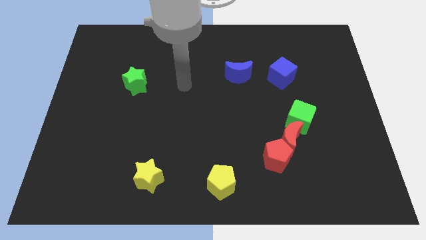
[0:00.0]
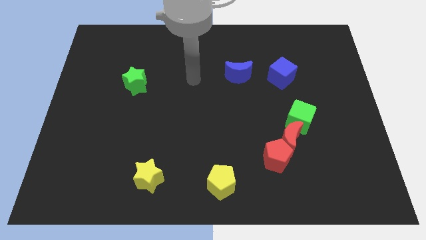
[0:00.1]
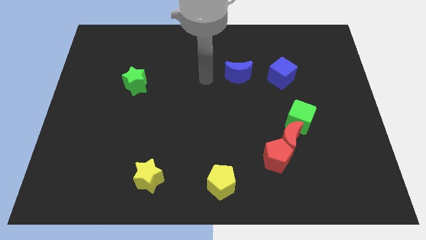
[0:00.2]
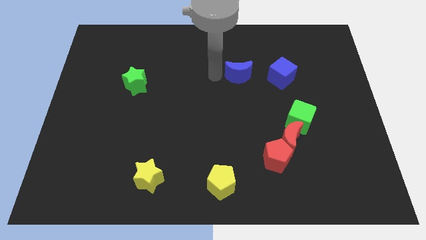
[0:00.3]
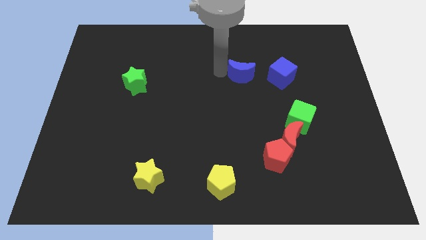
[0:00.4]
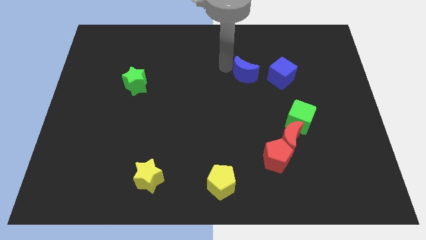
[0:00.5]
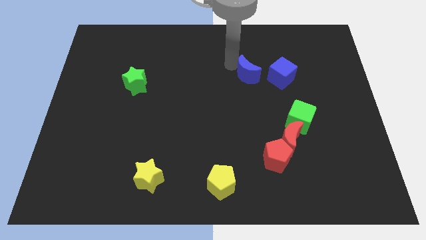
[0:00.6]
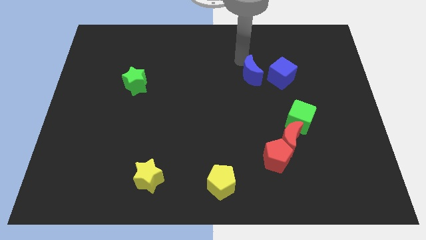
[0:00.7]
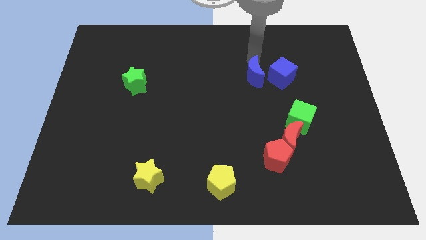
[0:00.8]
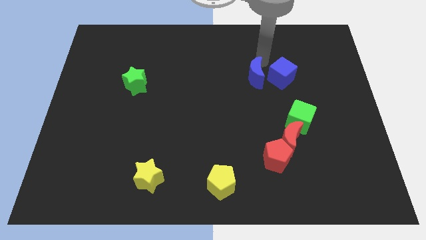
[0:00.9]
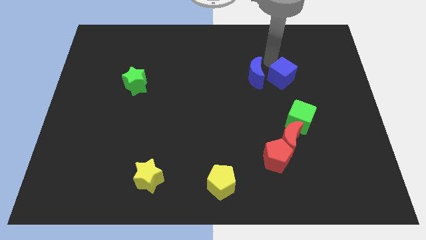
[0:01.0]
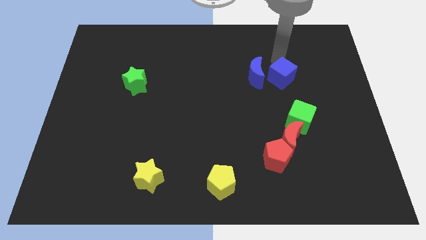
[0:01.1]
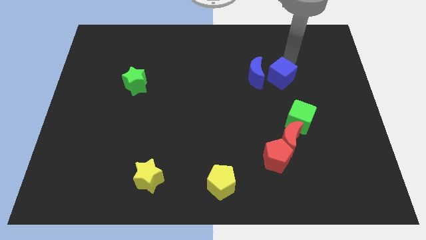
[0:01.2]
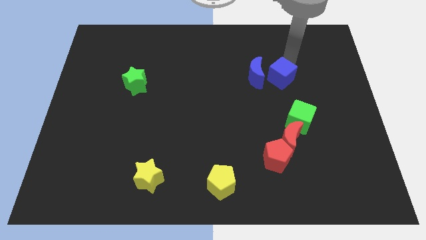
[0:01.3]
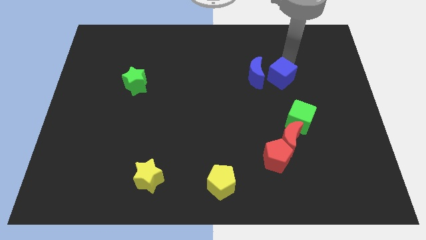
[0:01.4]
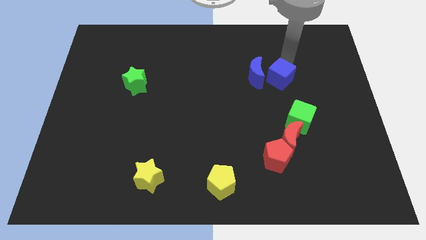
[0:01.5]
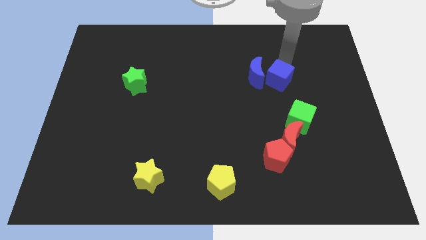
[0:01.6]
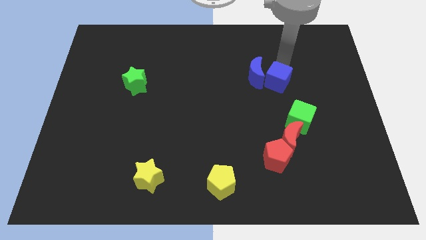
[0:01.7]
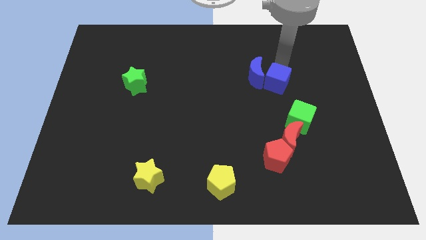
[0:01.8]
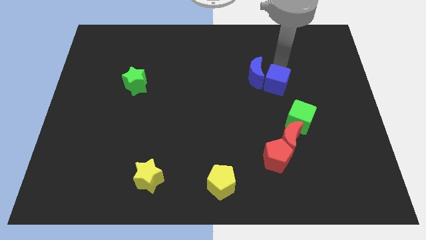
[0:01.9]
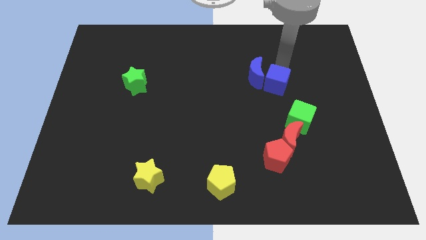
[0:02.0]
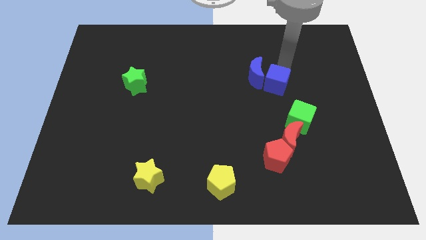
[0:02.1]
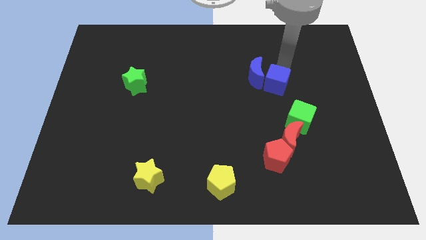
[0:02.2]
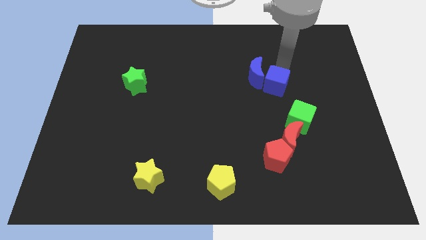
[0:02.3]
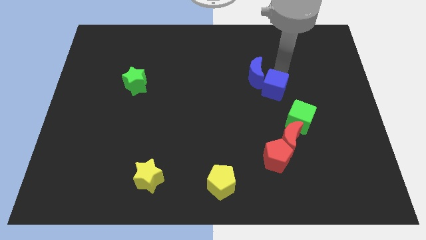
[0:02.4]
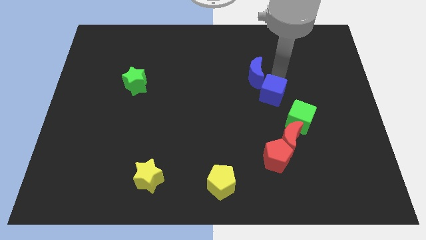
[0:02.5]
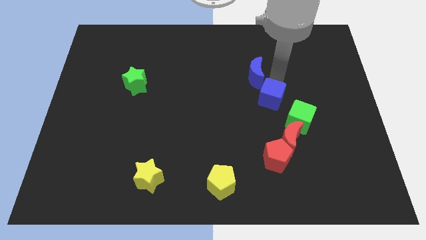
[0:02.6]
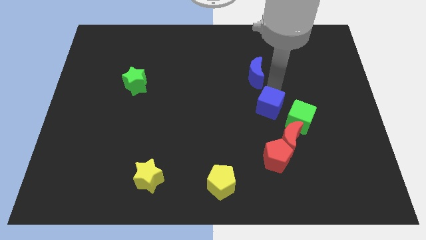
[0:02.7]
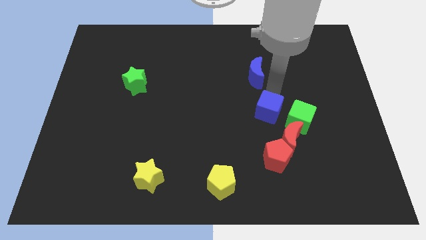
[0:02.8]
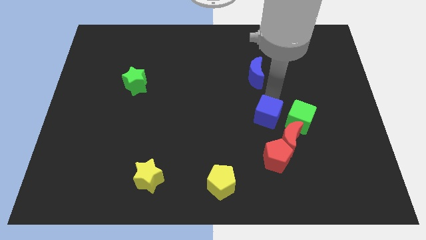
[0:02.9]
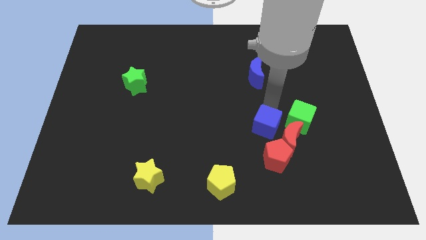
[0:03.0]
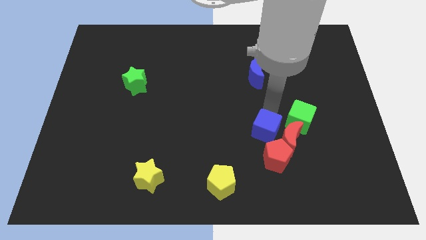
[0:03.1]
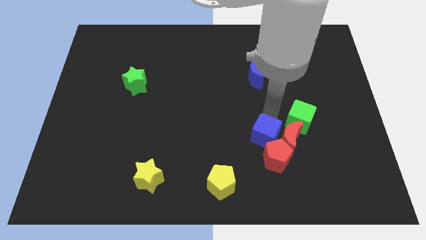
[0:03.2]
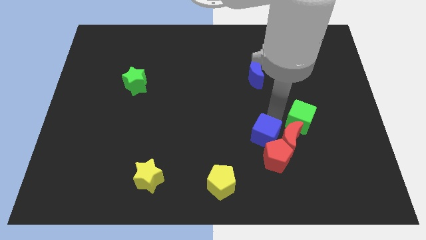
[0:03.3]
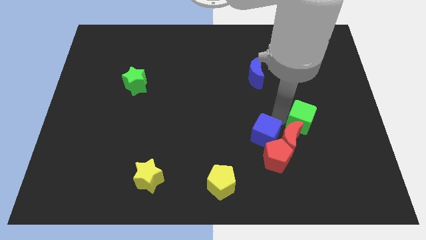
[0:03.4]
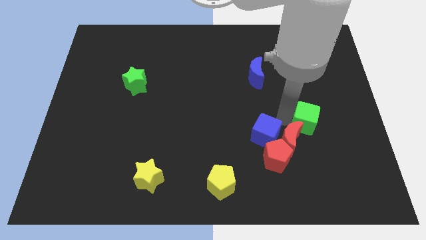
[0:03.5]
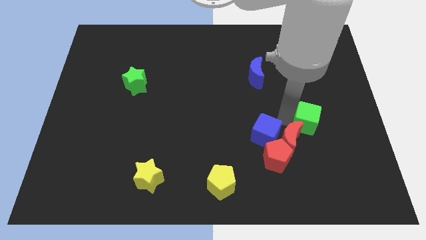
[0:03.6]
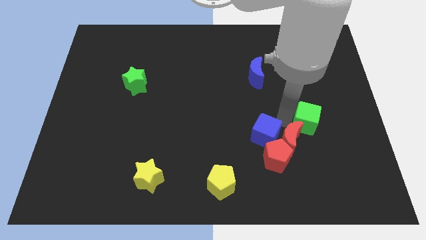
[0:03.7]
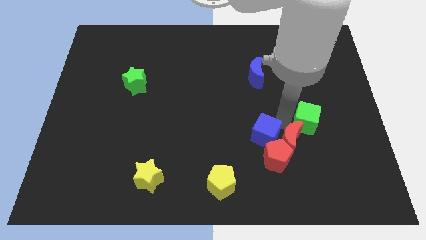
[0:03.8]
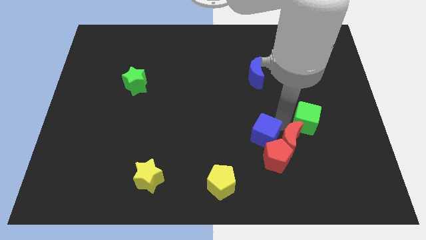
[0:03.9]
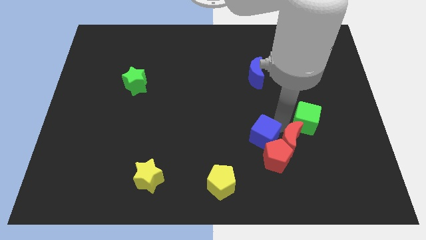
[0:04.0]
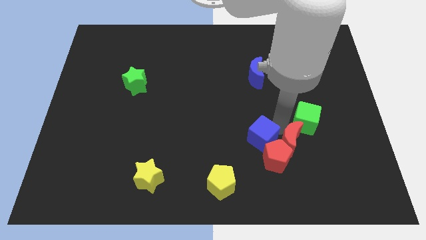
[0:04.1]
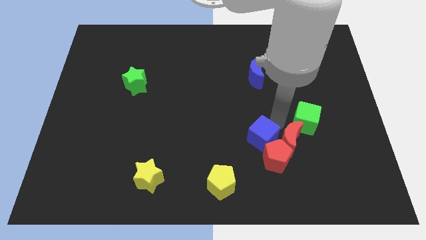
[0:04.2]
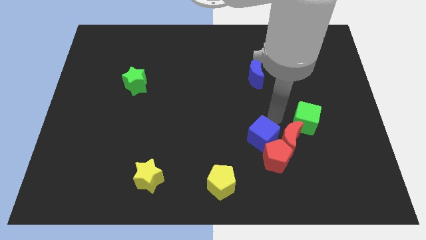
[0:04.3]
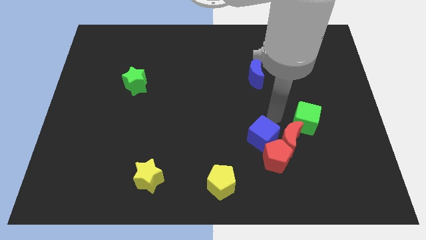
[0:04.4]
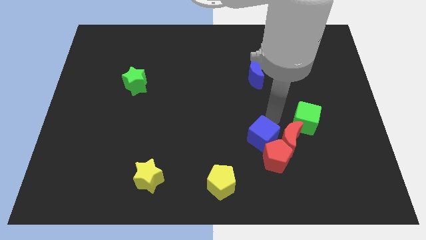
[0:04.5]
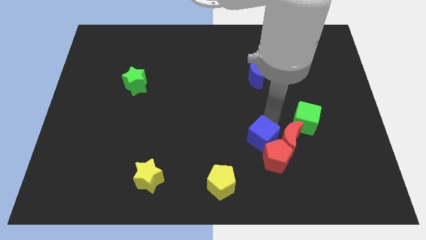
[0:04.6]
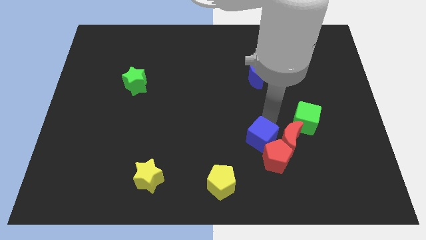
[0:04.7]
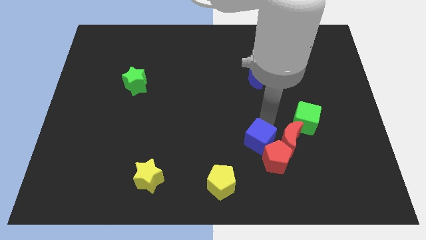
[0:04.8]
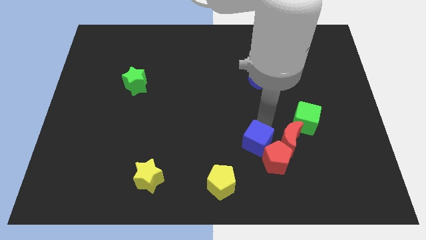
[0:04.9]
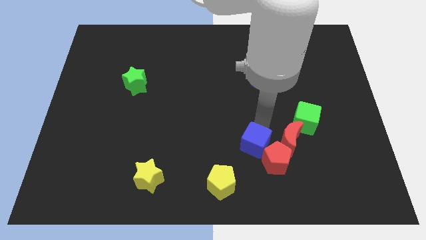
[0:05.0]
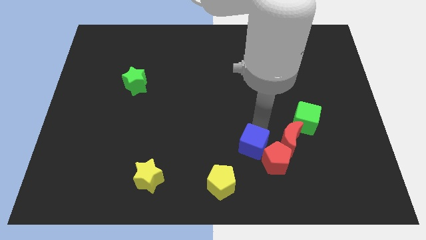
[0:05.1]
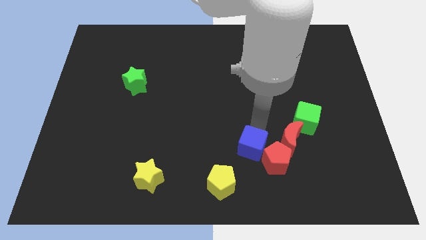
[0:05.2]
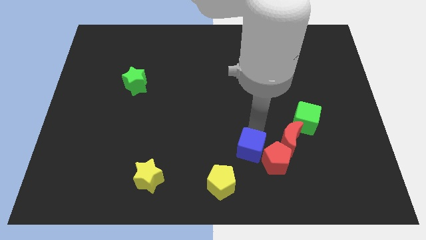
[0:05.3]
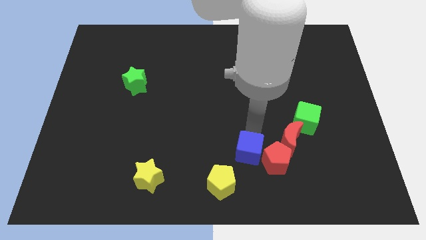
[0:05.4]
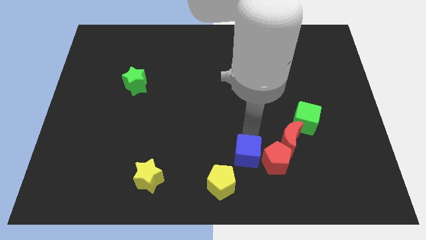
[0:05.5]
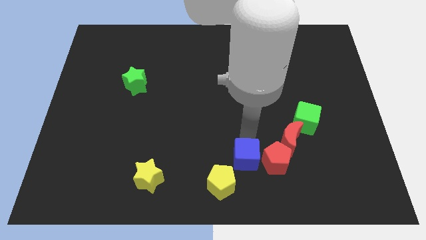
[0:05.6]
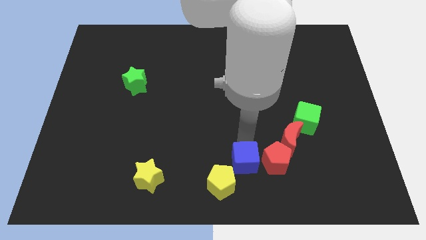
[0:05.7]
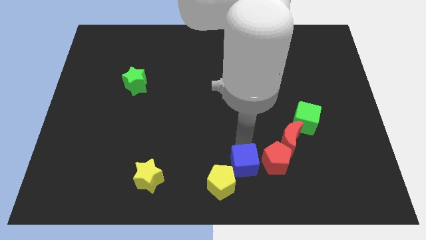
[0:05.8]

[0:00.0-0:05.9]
put the blue cube just right of the yellow pentagon

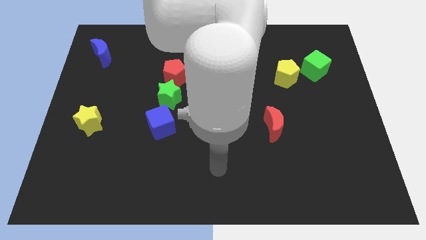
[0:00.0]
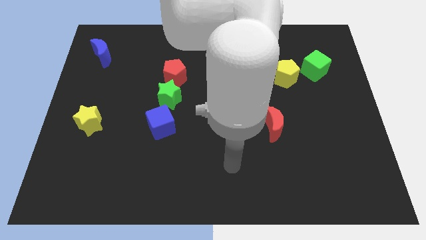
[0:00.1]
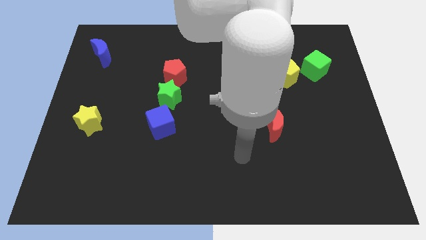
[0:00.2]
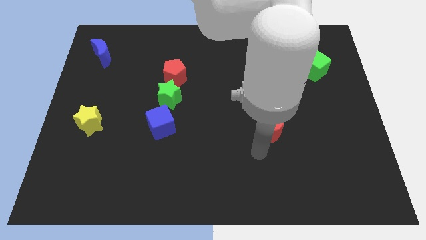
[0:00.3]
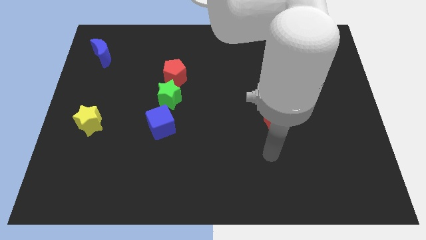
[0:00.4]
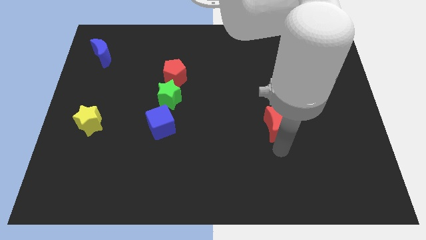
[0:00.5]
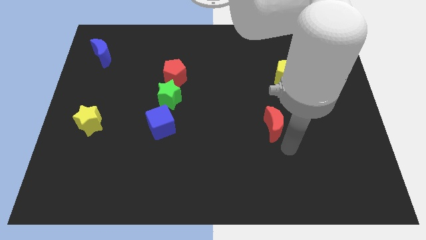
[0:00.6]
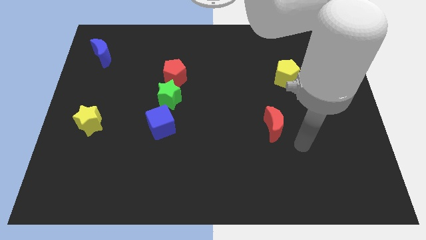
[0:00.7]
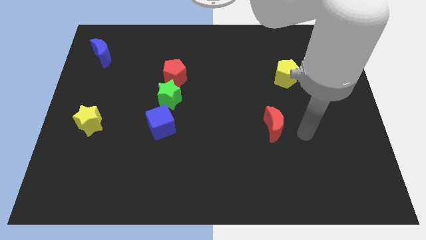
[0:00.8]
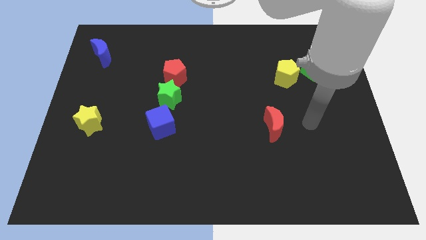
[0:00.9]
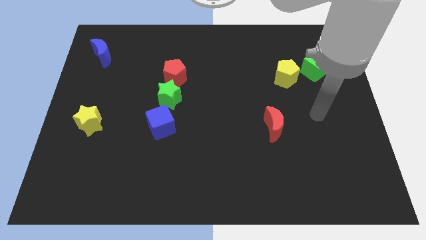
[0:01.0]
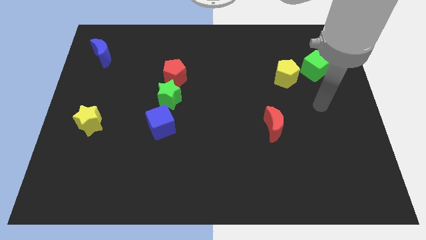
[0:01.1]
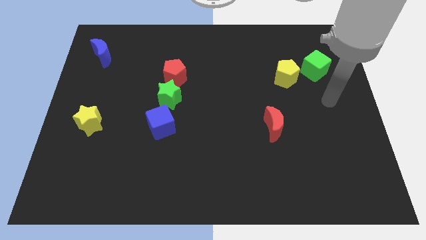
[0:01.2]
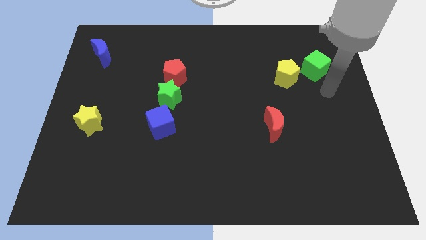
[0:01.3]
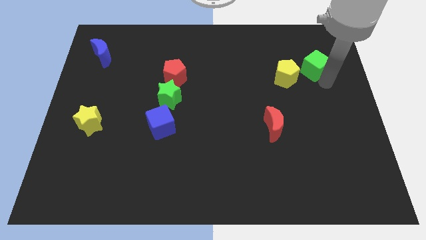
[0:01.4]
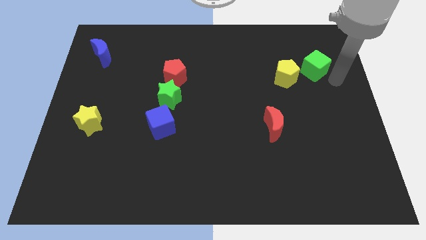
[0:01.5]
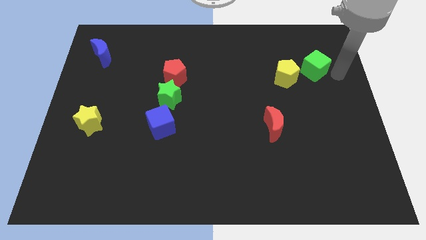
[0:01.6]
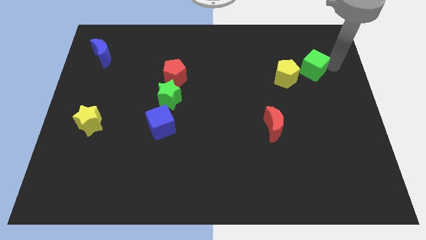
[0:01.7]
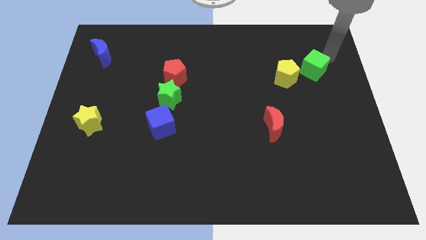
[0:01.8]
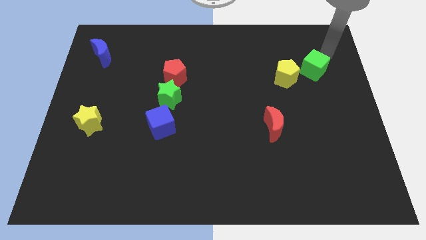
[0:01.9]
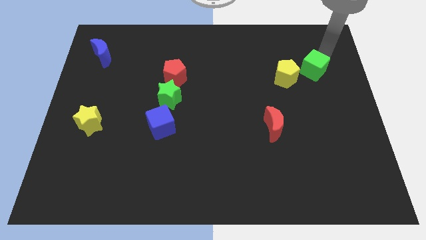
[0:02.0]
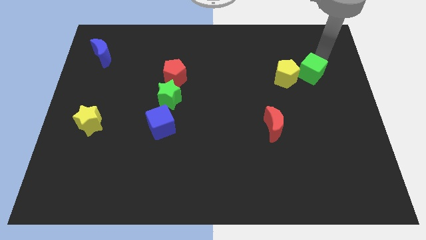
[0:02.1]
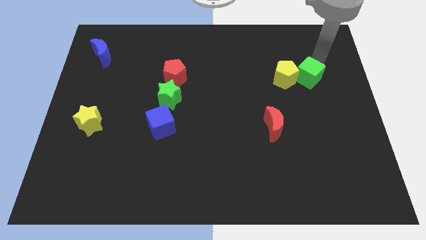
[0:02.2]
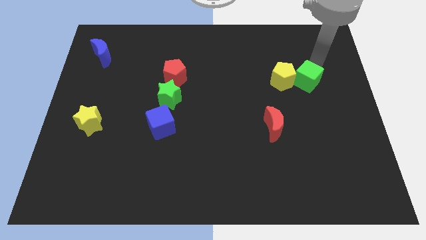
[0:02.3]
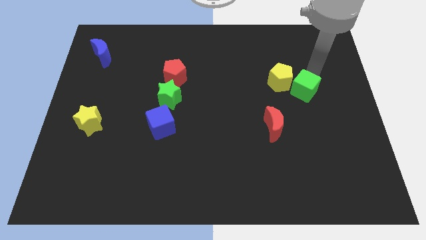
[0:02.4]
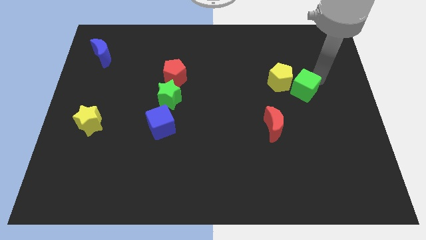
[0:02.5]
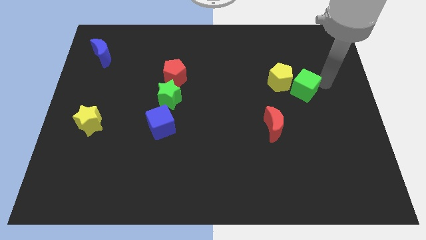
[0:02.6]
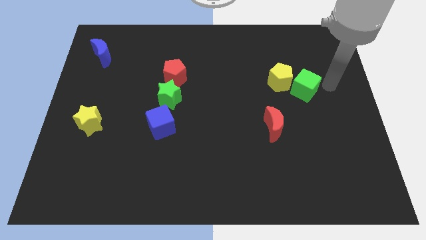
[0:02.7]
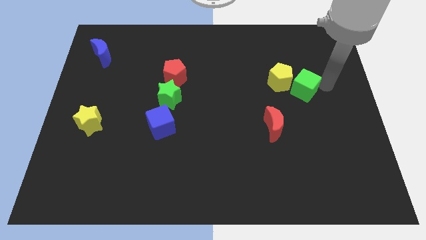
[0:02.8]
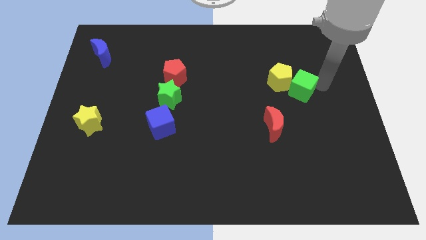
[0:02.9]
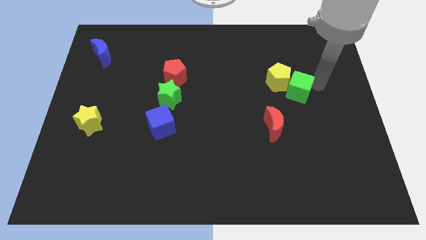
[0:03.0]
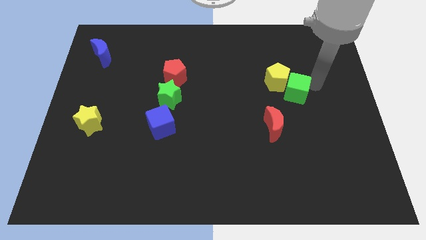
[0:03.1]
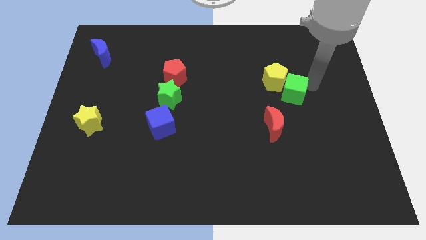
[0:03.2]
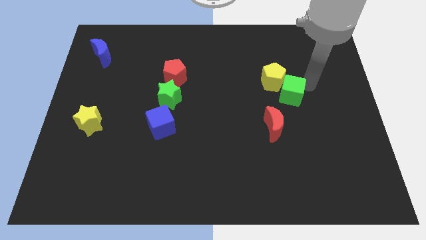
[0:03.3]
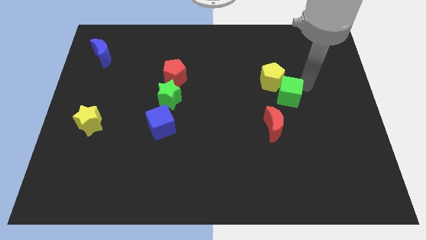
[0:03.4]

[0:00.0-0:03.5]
put the green cube above the red moon
